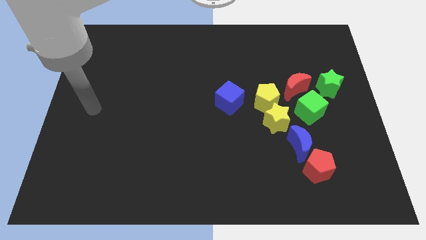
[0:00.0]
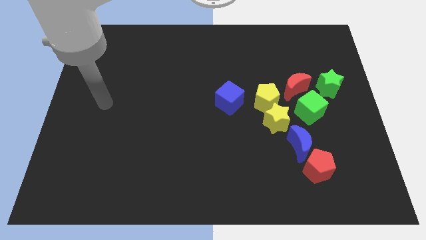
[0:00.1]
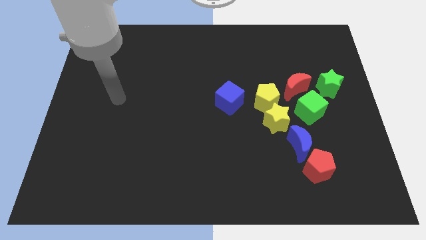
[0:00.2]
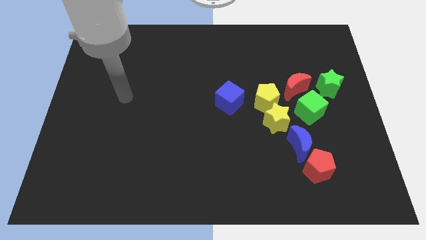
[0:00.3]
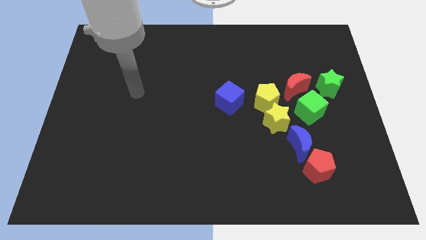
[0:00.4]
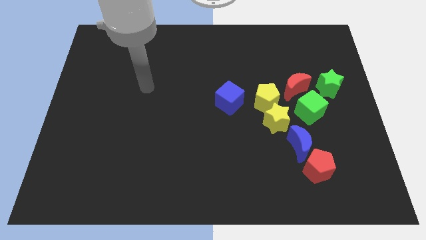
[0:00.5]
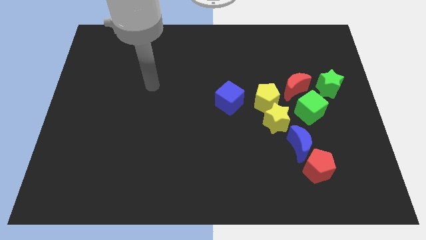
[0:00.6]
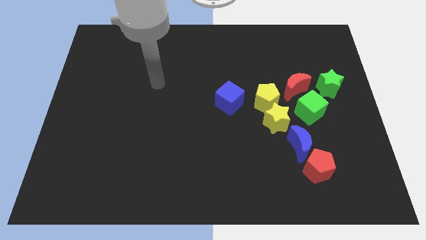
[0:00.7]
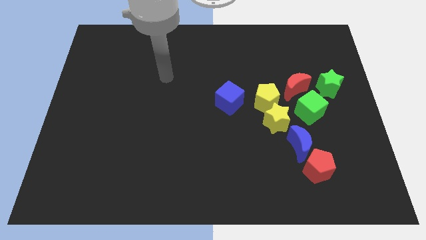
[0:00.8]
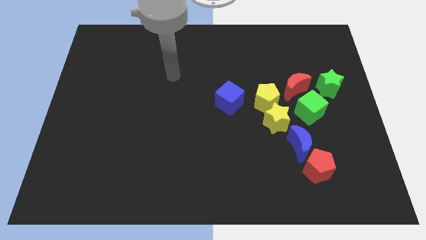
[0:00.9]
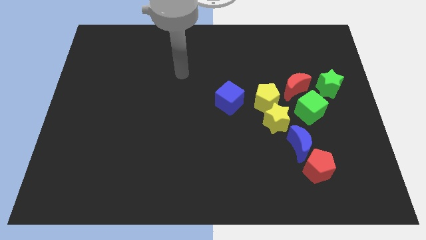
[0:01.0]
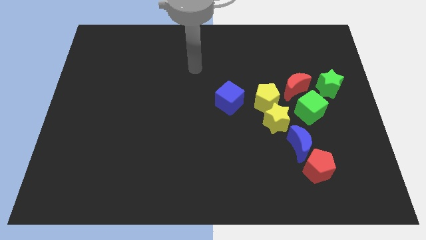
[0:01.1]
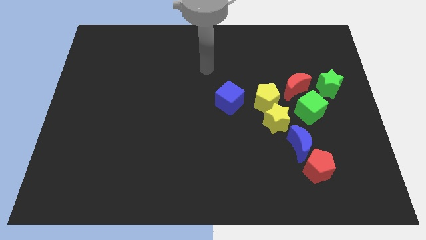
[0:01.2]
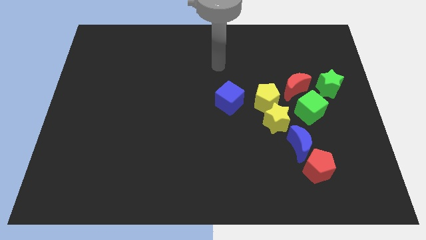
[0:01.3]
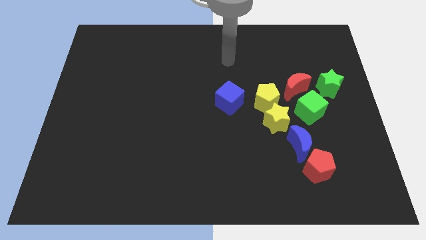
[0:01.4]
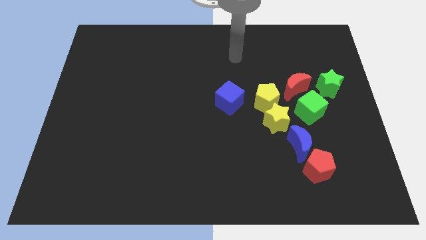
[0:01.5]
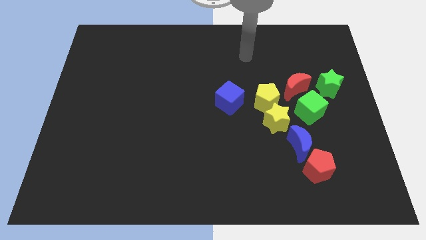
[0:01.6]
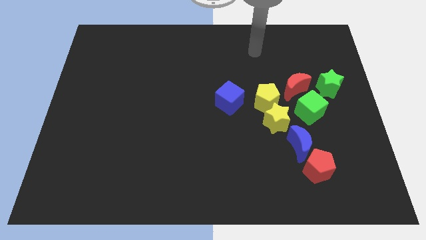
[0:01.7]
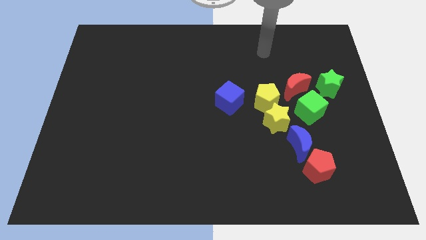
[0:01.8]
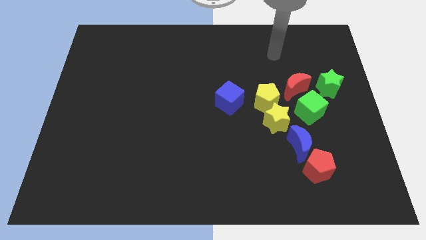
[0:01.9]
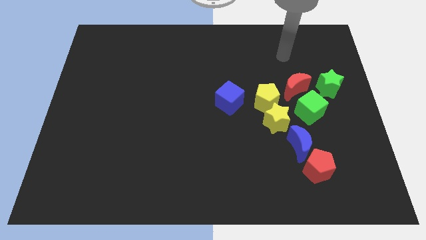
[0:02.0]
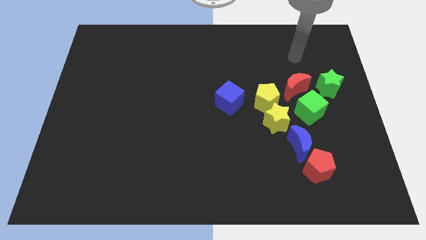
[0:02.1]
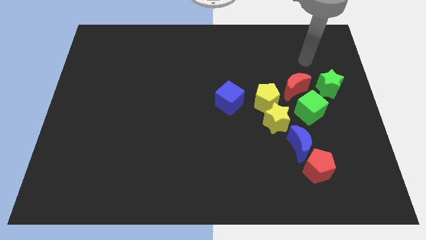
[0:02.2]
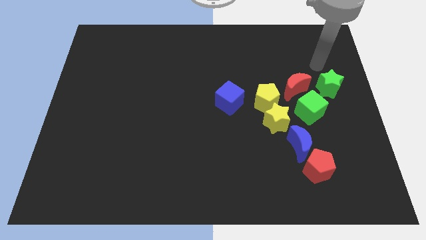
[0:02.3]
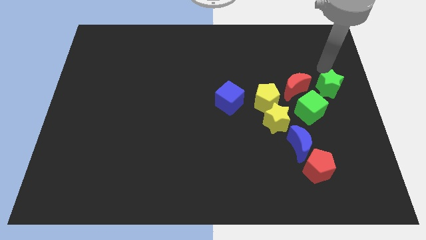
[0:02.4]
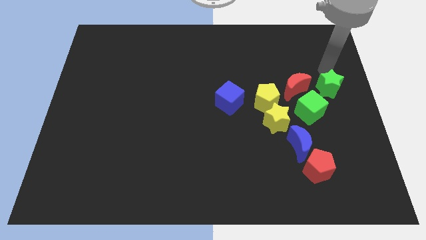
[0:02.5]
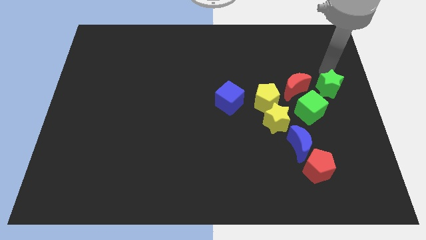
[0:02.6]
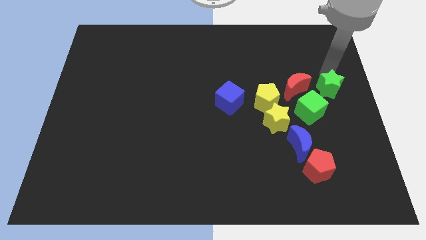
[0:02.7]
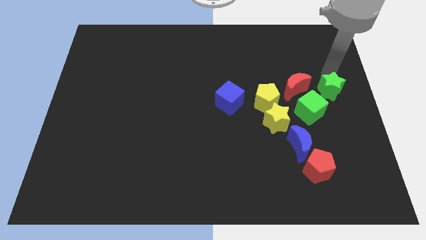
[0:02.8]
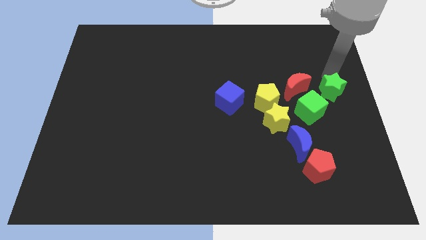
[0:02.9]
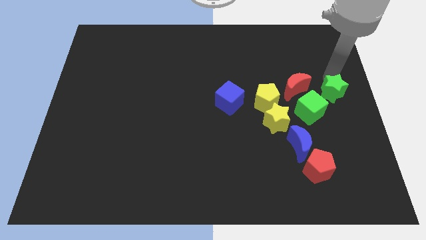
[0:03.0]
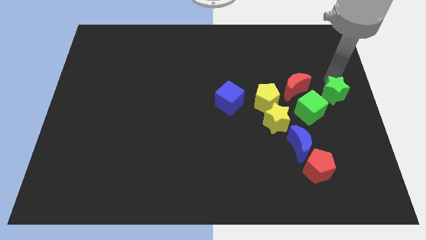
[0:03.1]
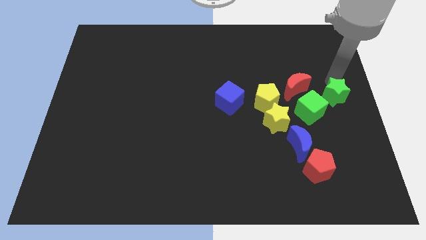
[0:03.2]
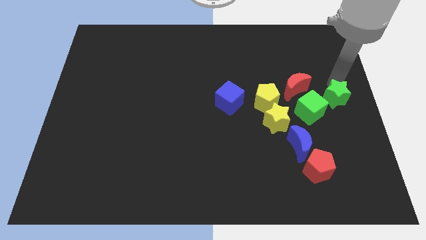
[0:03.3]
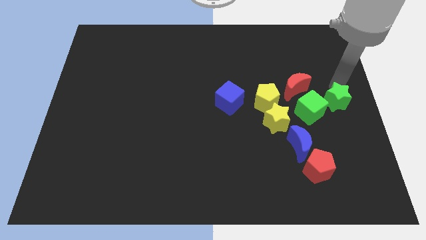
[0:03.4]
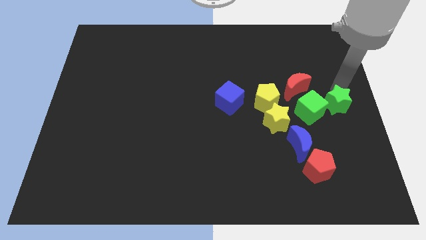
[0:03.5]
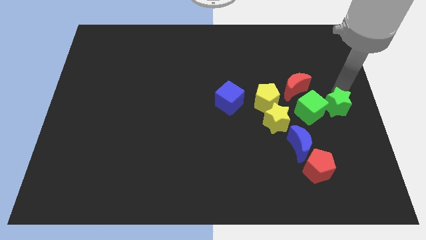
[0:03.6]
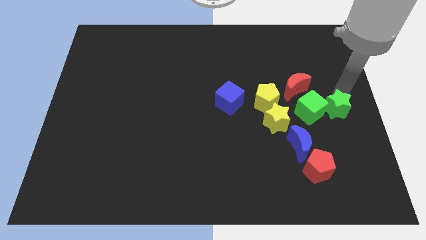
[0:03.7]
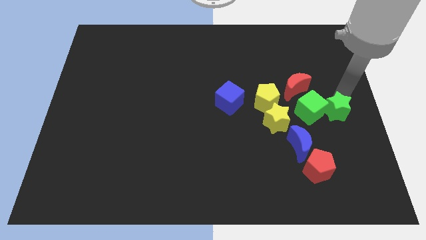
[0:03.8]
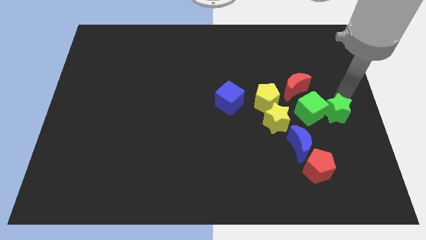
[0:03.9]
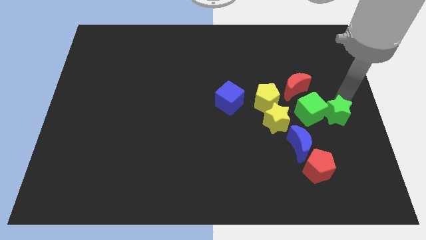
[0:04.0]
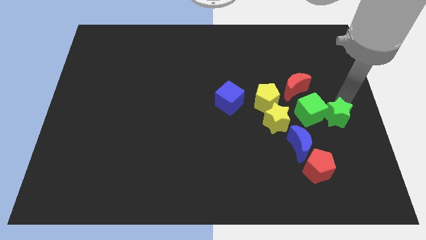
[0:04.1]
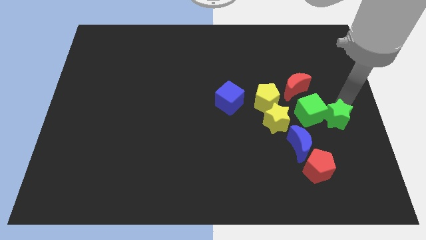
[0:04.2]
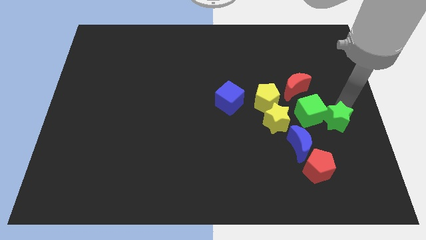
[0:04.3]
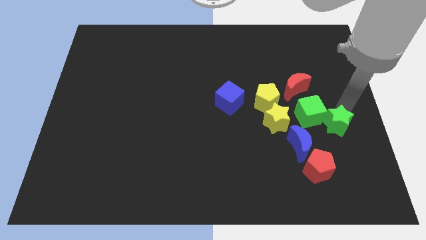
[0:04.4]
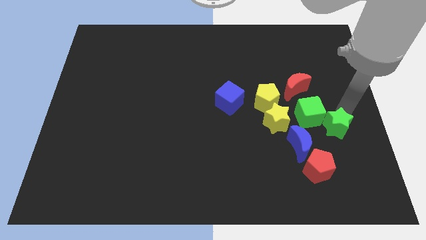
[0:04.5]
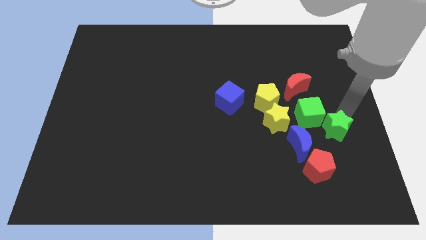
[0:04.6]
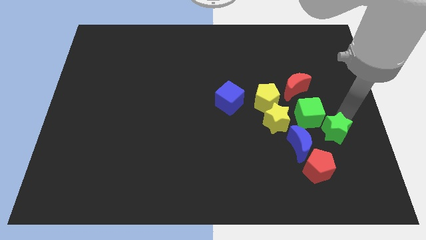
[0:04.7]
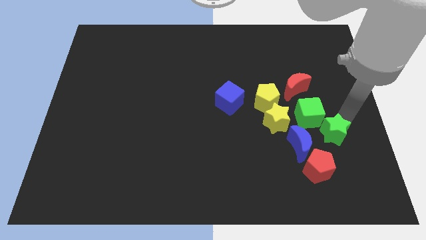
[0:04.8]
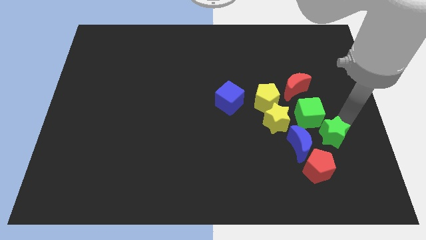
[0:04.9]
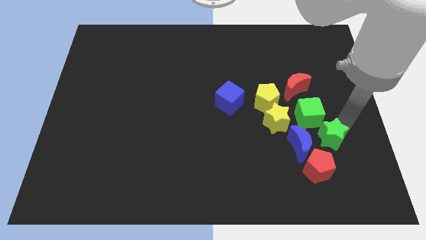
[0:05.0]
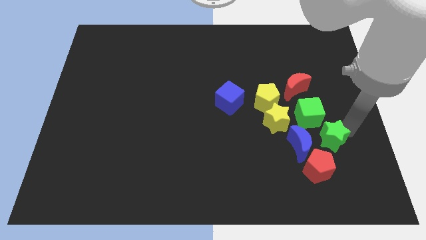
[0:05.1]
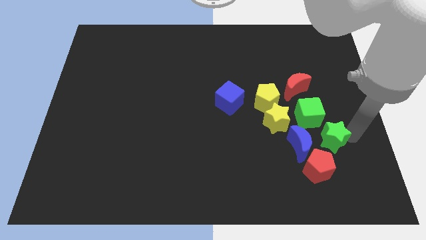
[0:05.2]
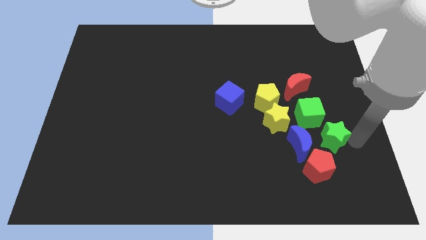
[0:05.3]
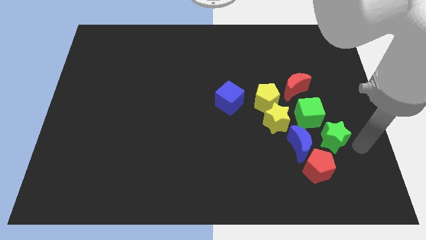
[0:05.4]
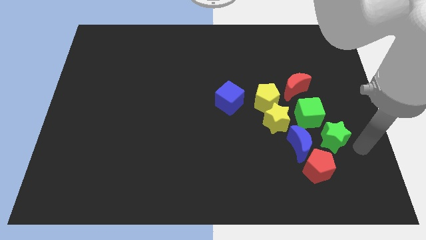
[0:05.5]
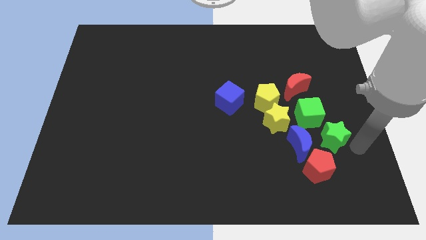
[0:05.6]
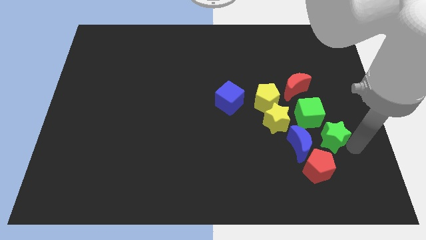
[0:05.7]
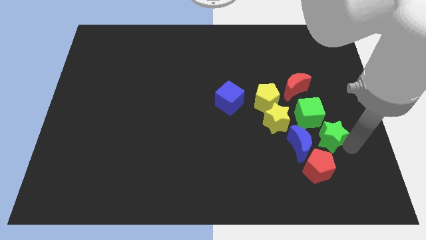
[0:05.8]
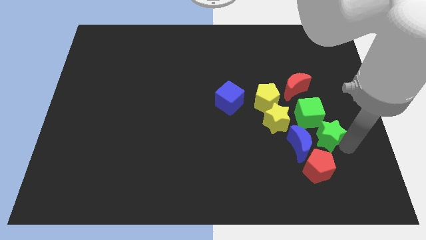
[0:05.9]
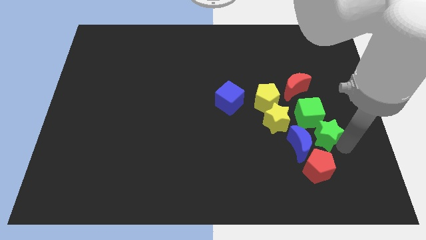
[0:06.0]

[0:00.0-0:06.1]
slide the green star to the blue moon

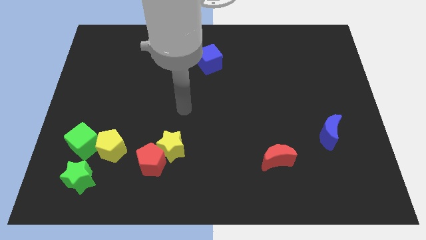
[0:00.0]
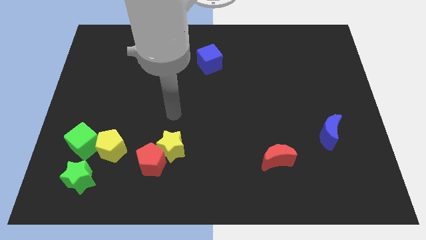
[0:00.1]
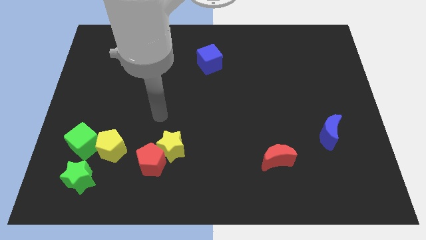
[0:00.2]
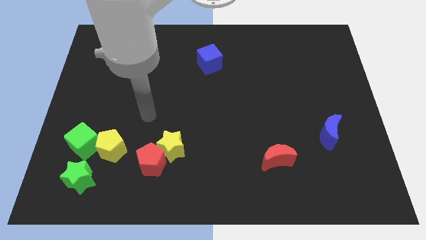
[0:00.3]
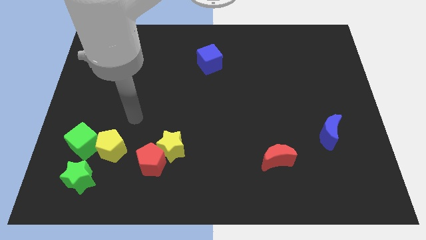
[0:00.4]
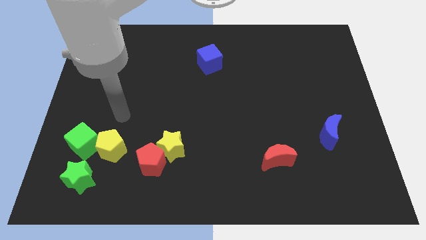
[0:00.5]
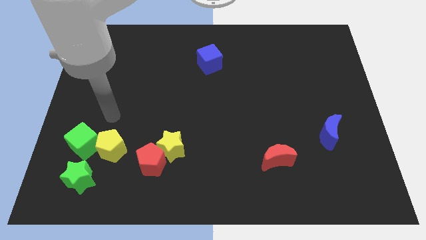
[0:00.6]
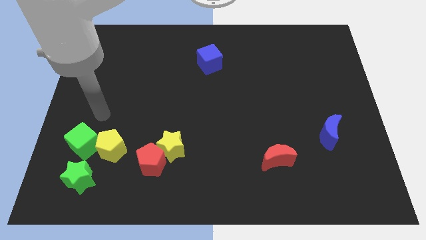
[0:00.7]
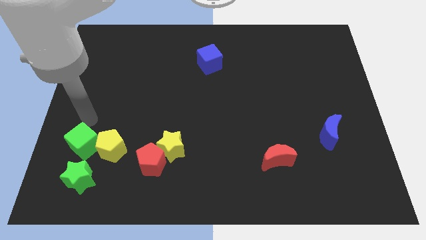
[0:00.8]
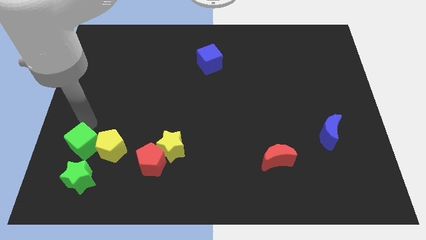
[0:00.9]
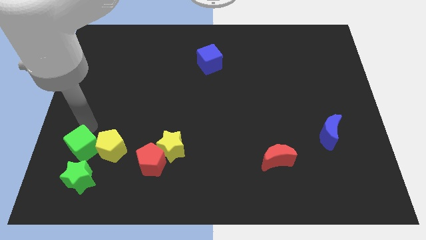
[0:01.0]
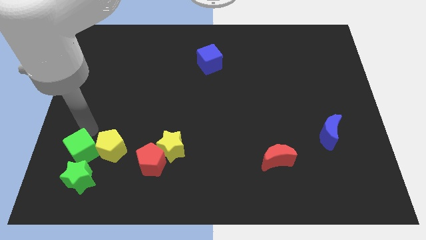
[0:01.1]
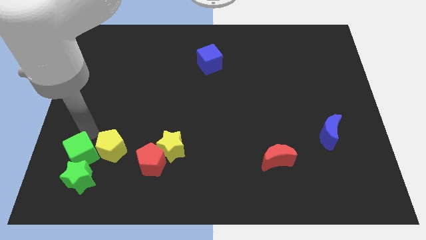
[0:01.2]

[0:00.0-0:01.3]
push the green cube close to the green star

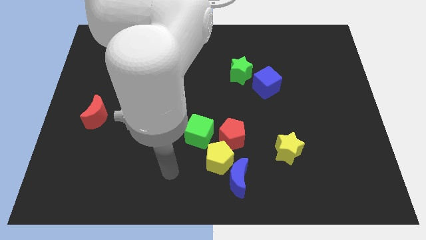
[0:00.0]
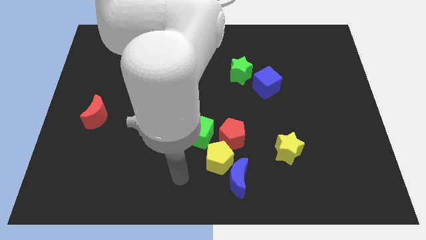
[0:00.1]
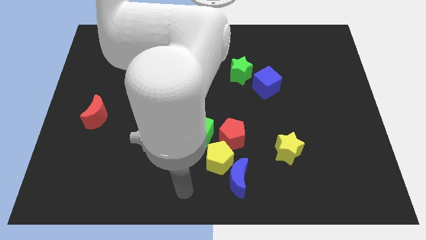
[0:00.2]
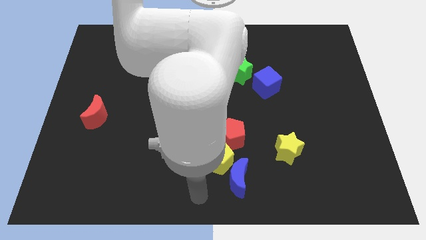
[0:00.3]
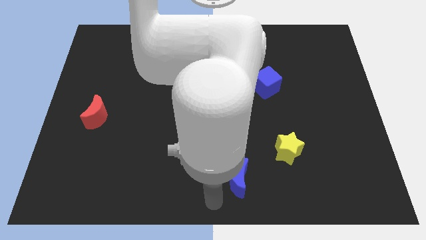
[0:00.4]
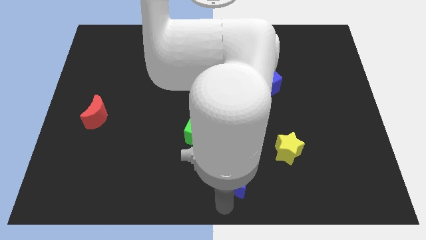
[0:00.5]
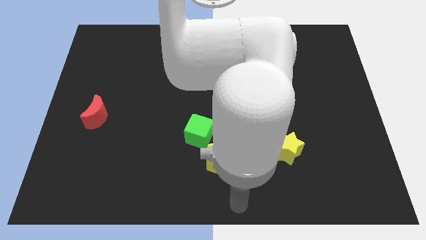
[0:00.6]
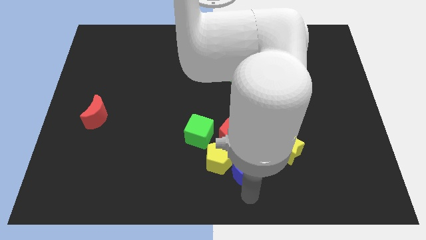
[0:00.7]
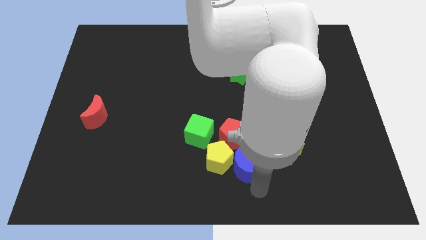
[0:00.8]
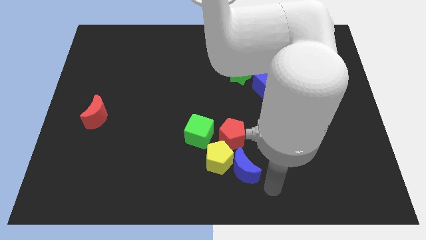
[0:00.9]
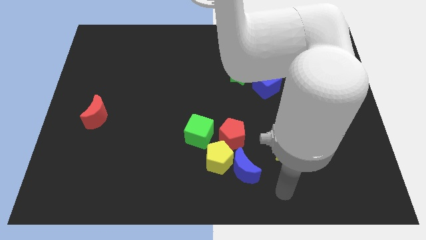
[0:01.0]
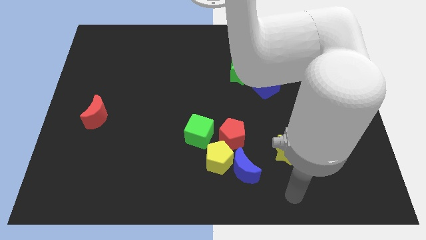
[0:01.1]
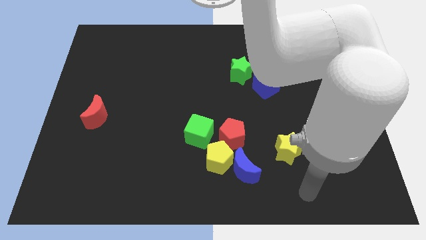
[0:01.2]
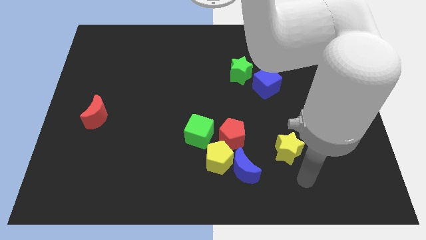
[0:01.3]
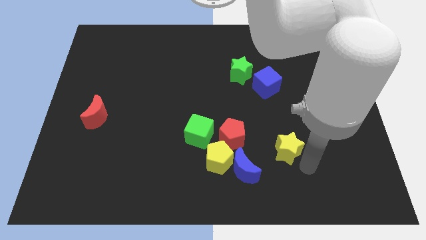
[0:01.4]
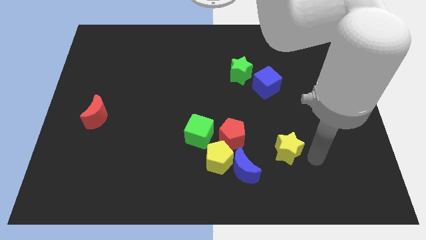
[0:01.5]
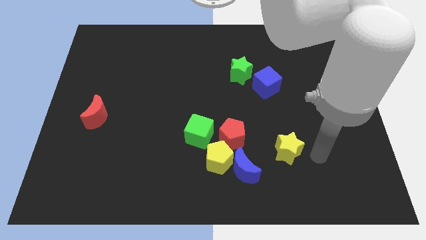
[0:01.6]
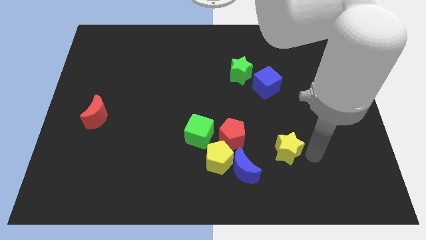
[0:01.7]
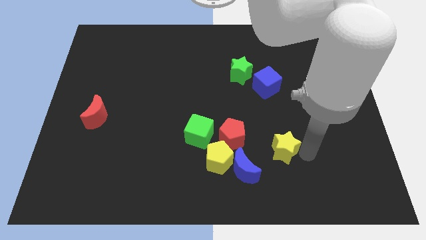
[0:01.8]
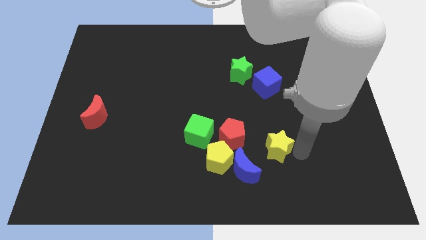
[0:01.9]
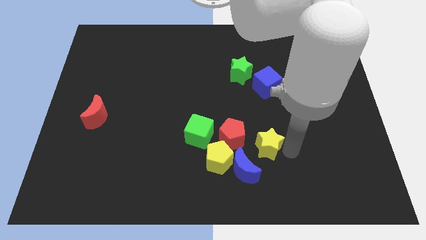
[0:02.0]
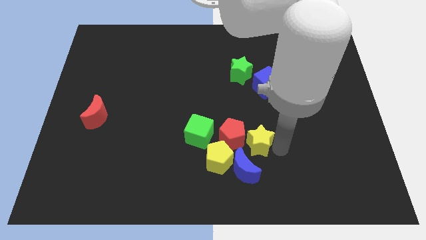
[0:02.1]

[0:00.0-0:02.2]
put the yellow star towards the red pentagon
